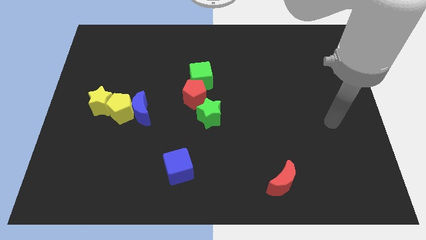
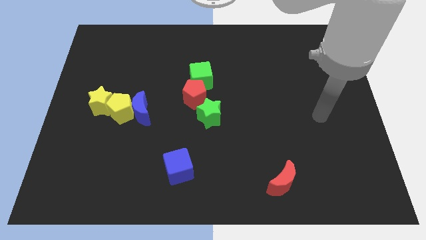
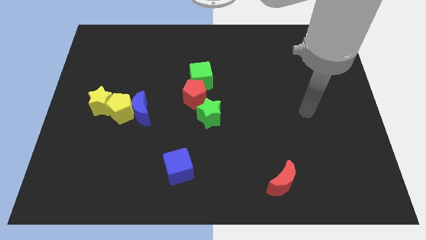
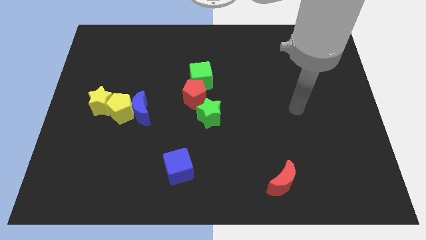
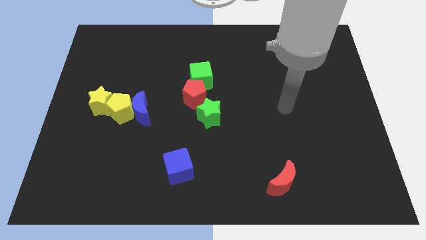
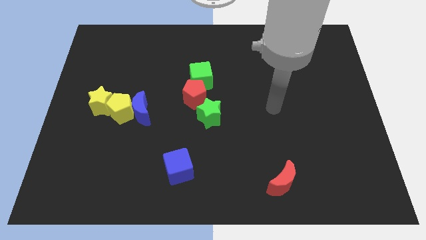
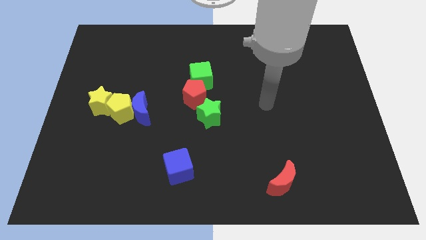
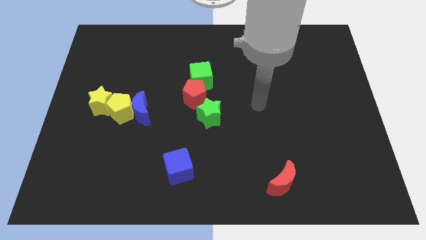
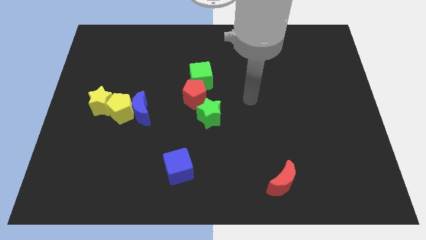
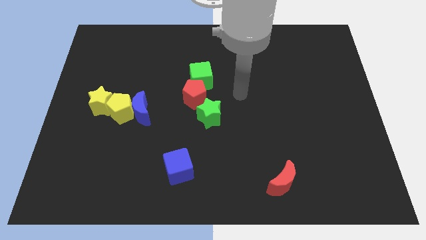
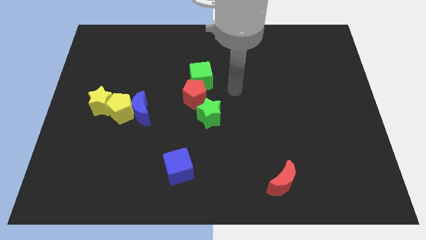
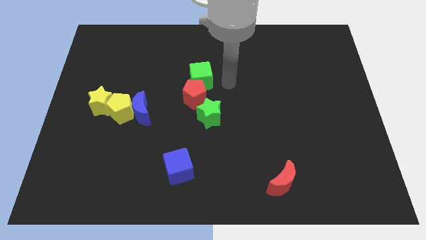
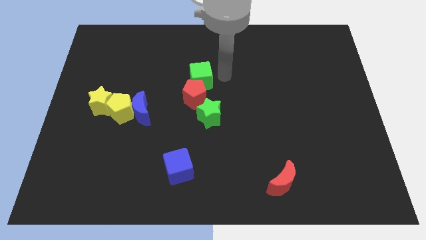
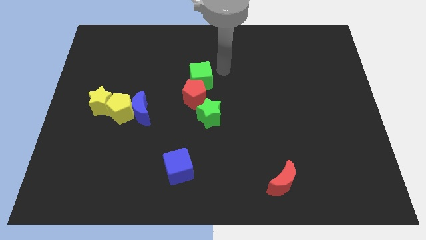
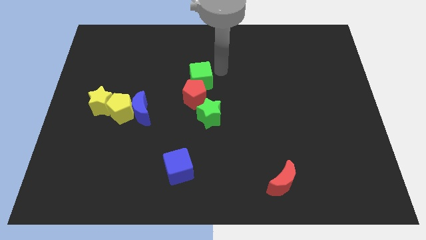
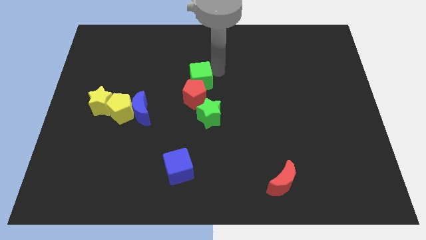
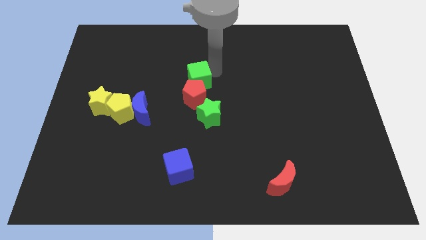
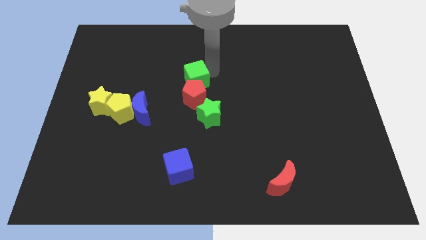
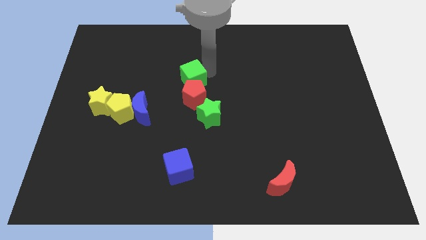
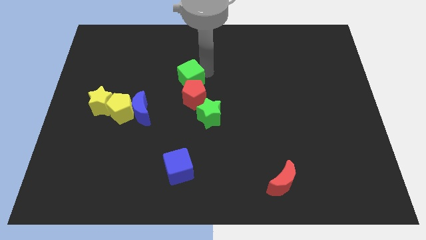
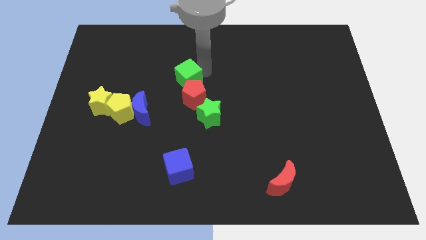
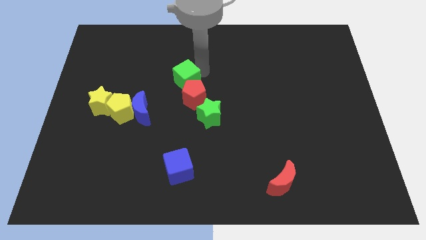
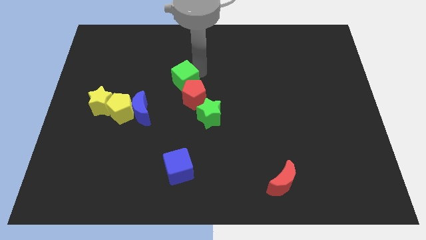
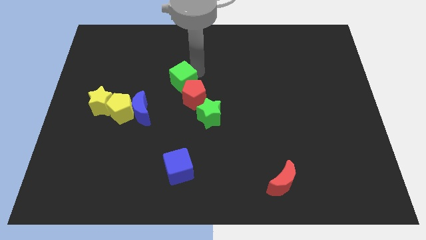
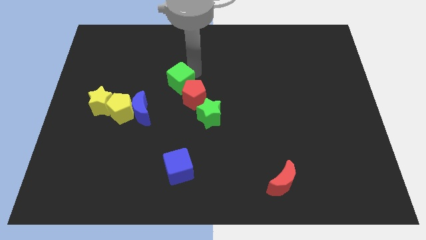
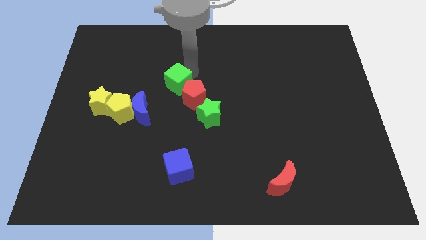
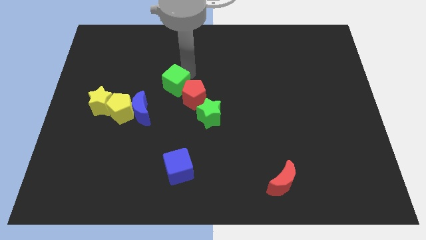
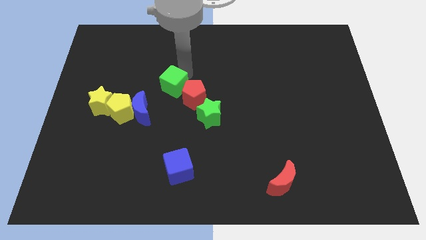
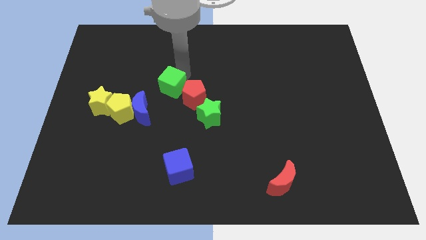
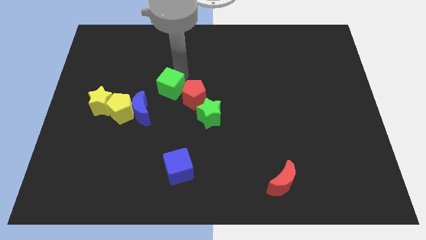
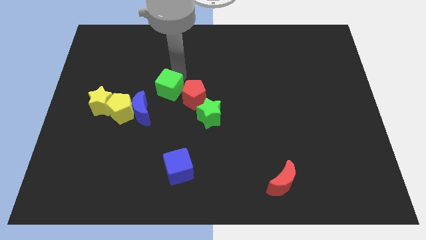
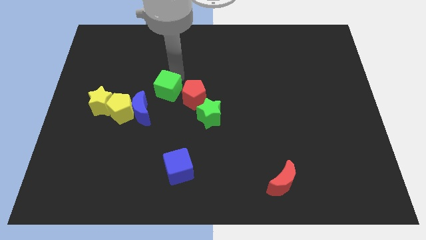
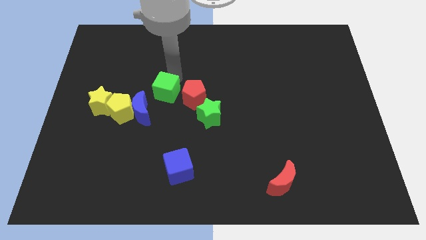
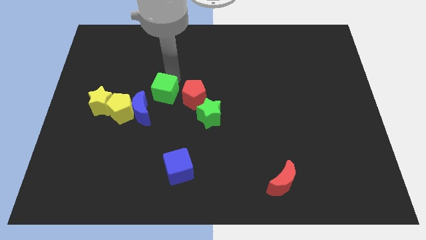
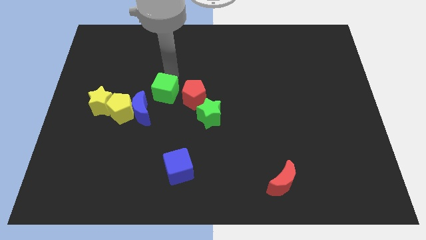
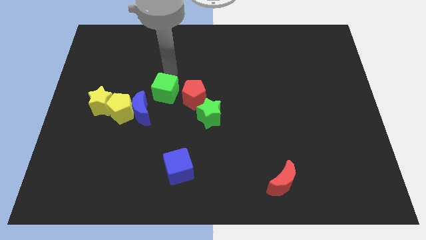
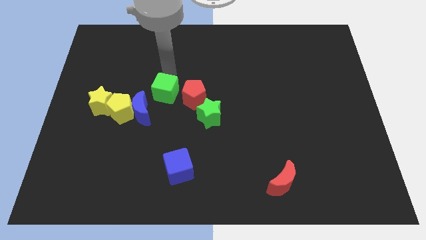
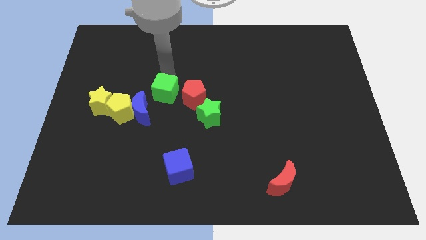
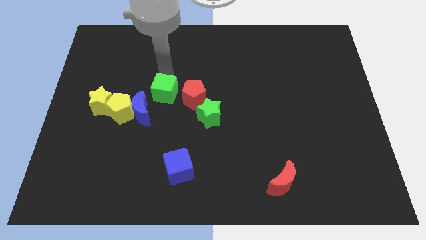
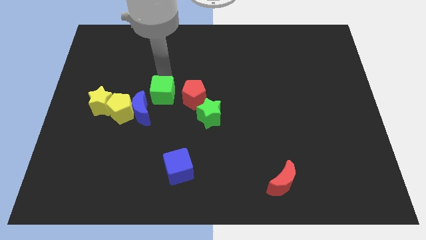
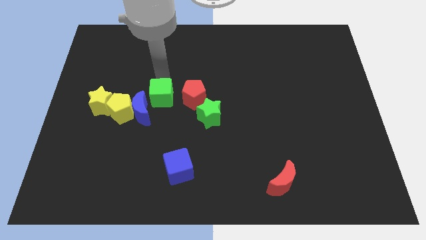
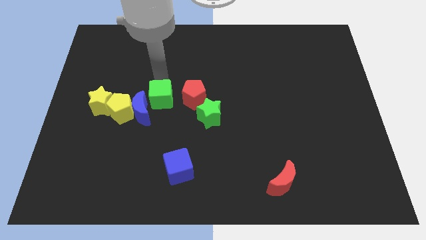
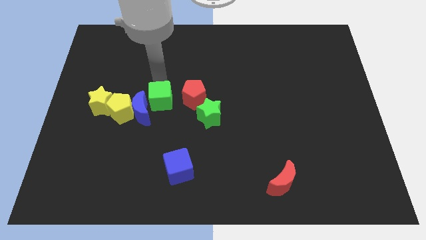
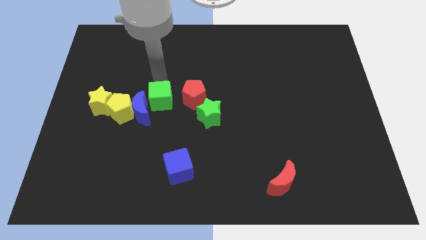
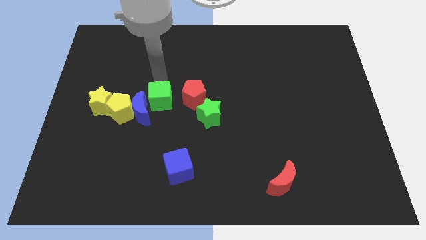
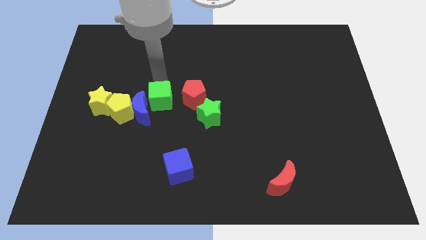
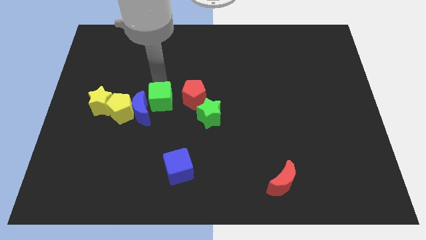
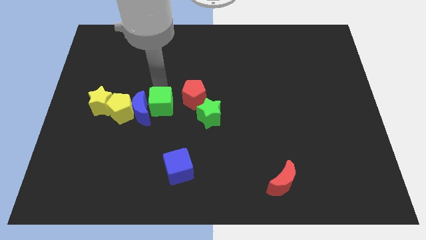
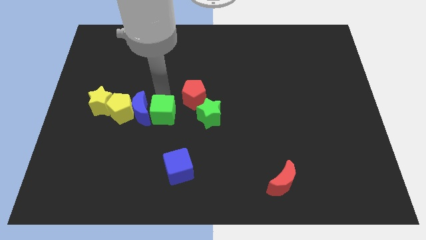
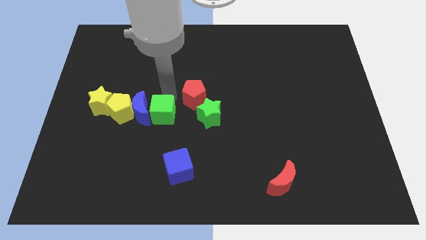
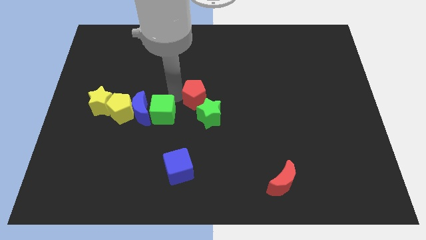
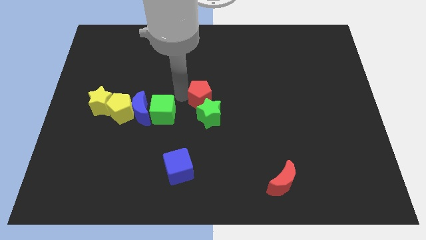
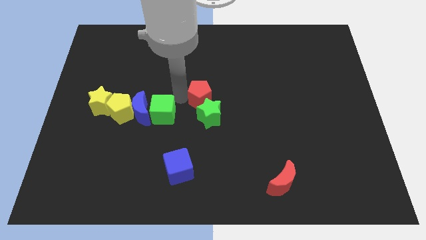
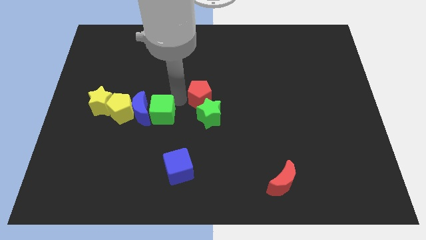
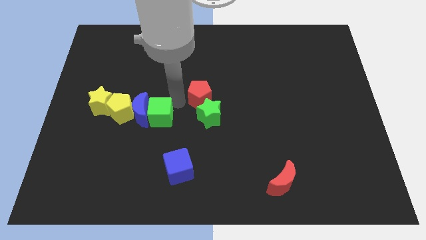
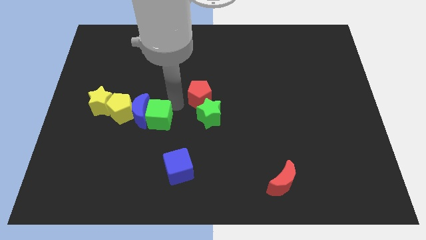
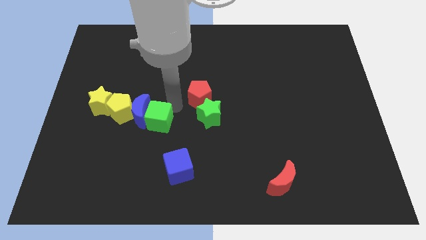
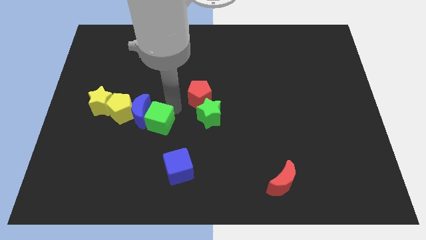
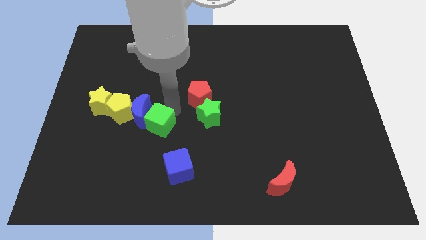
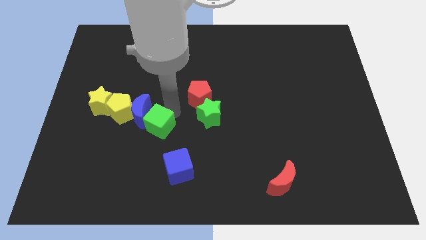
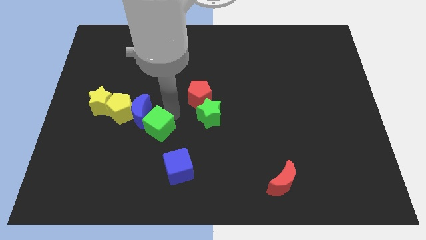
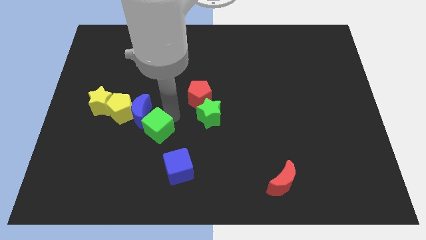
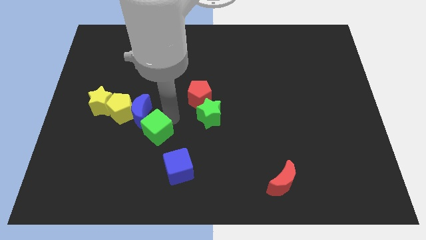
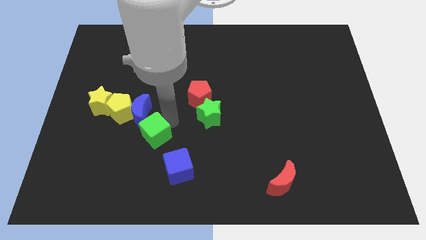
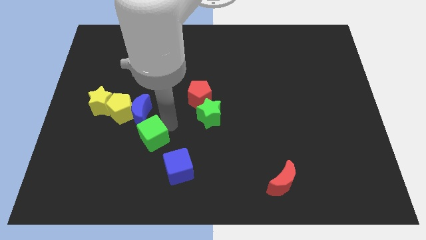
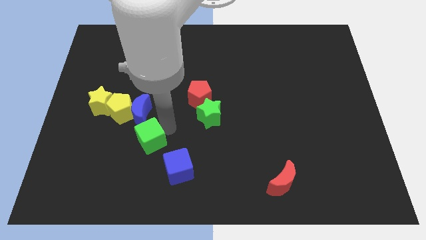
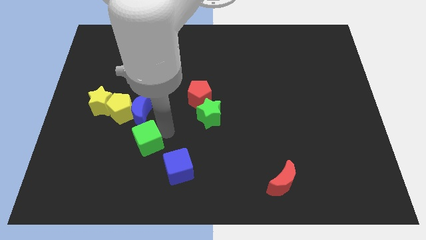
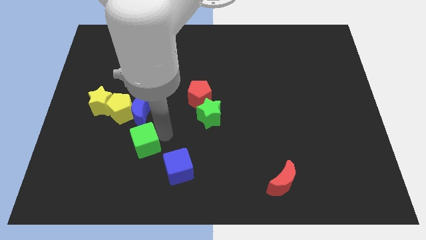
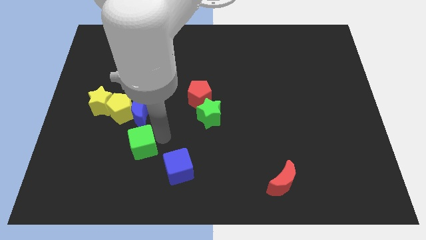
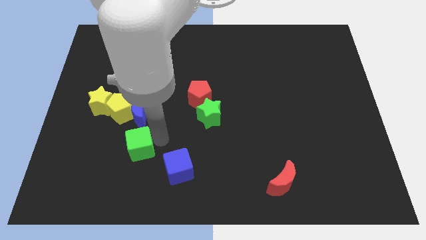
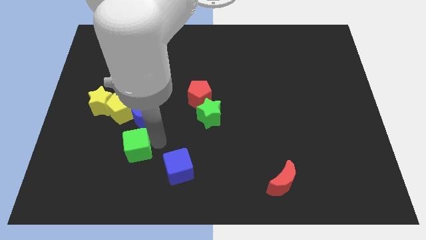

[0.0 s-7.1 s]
move the green cube to the bottom of the yellow pentagon

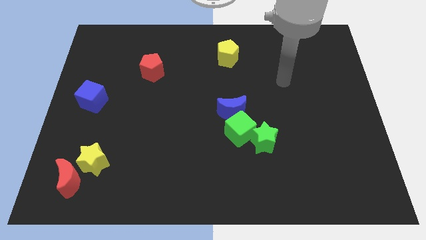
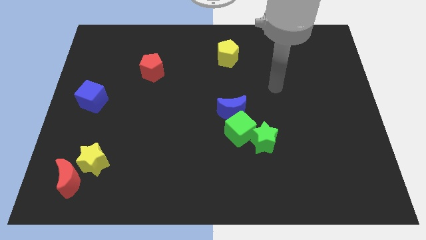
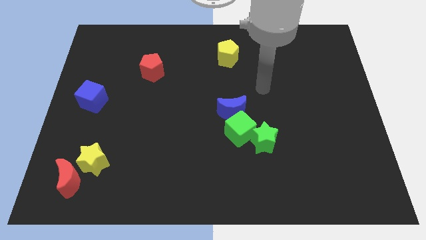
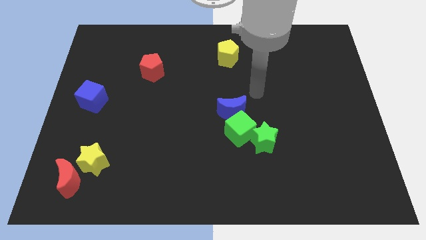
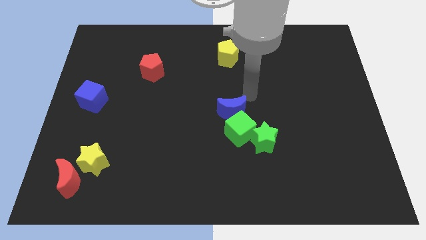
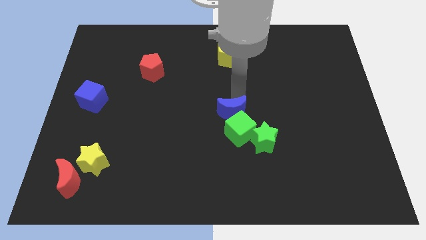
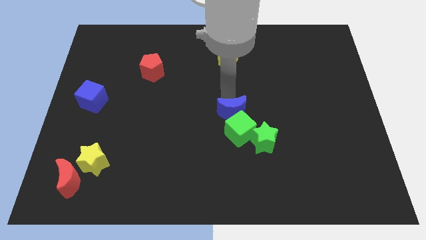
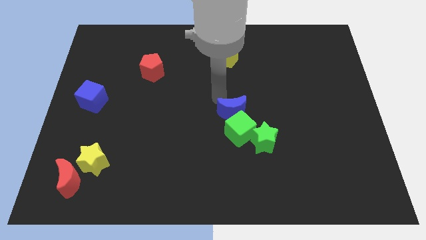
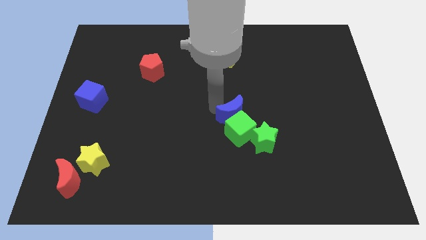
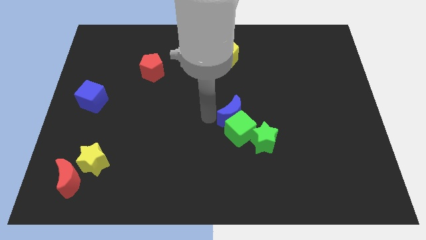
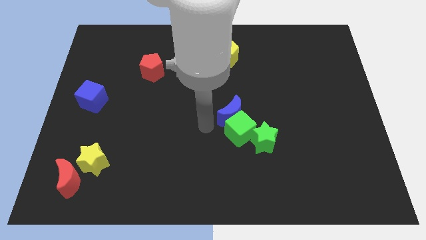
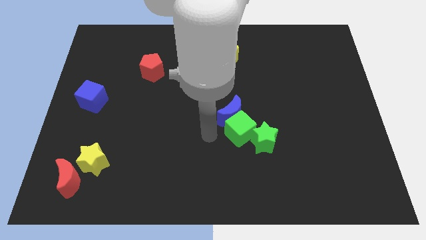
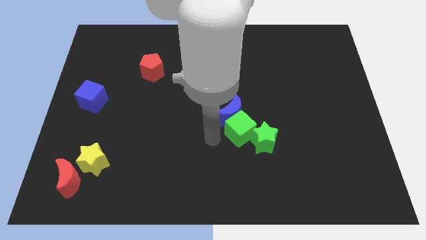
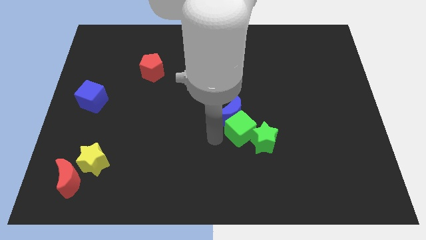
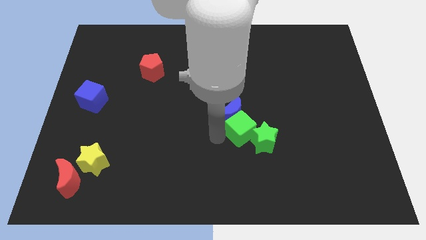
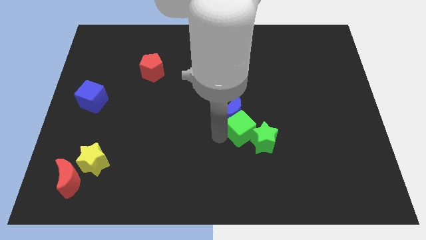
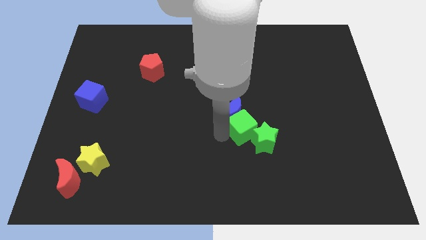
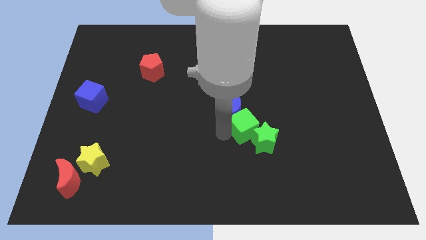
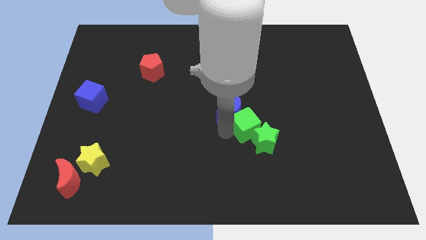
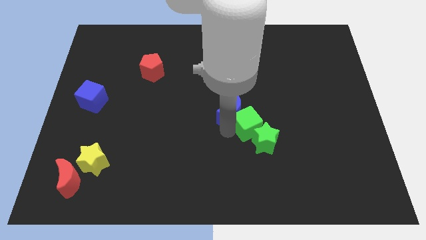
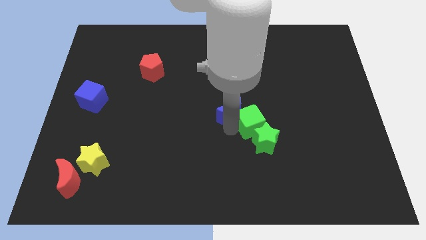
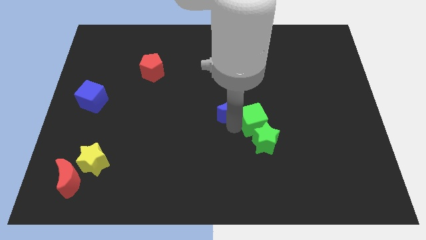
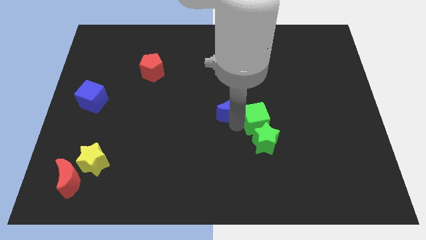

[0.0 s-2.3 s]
move the green cube to the top right side of the green star
